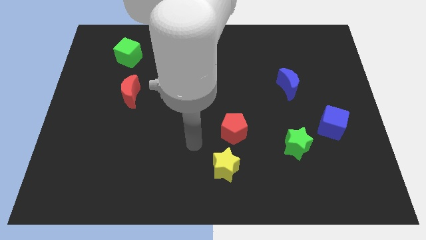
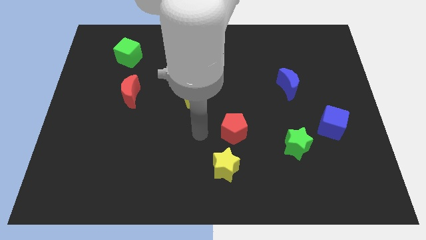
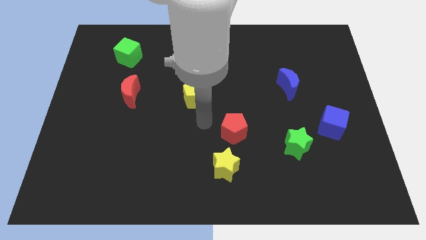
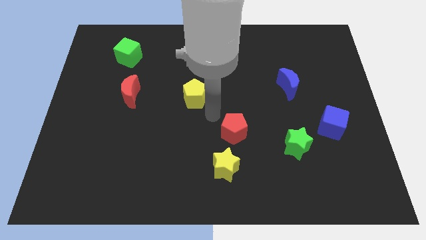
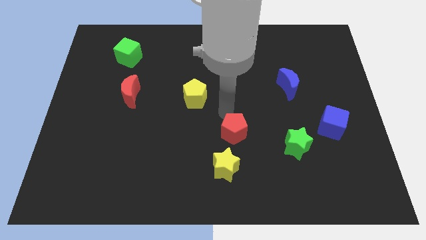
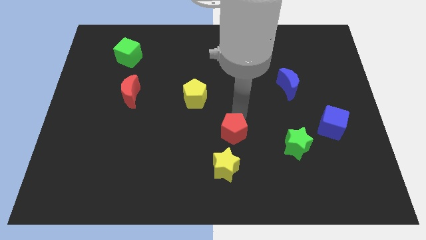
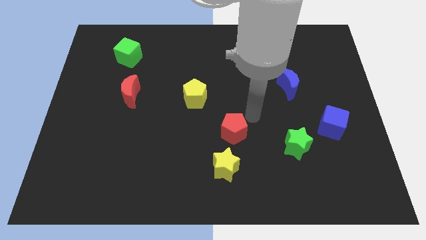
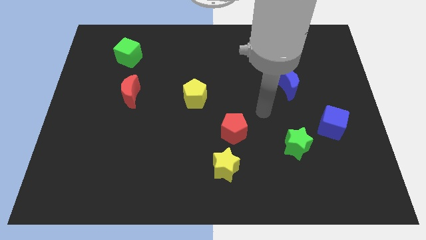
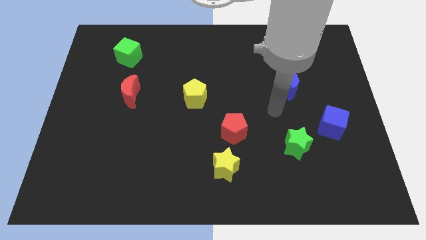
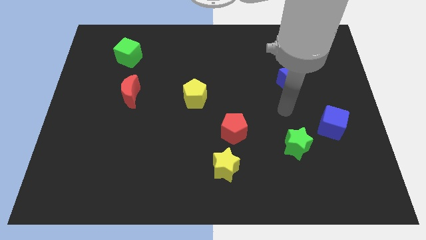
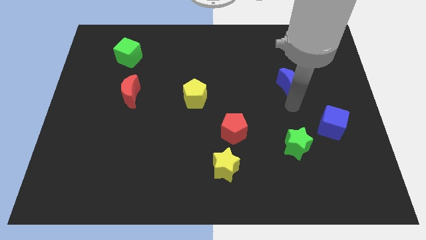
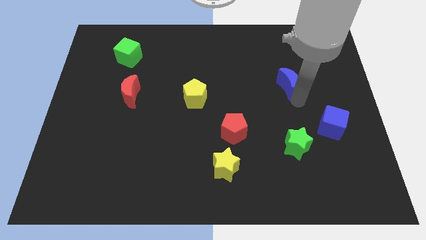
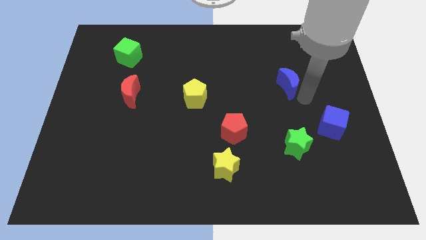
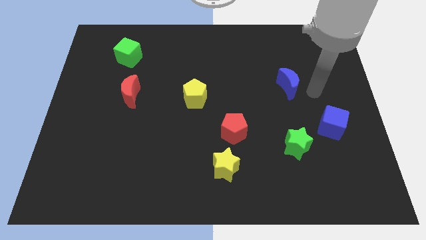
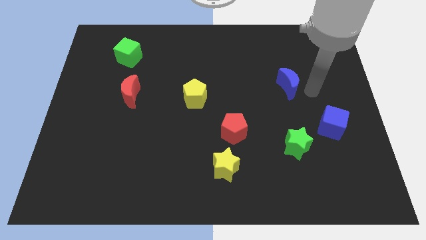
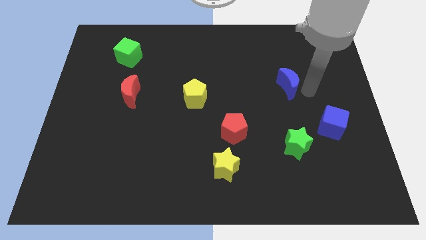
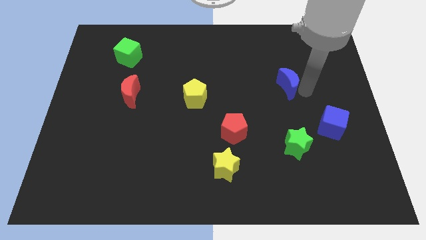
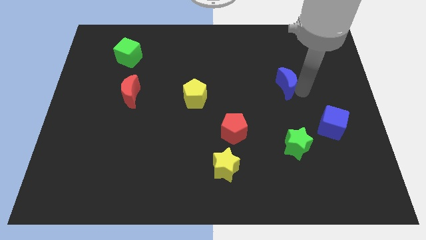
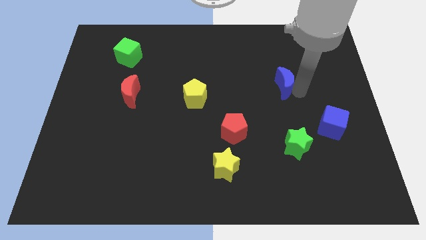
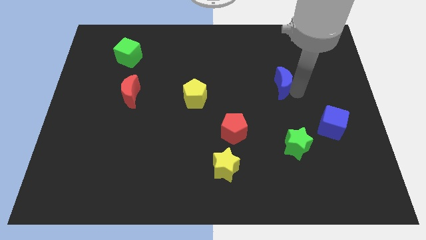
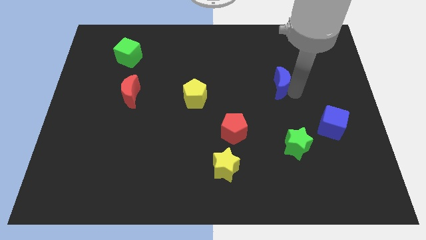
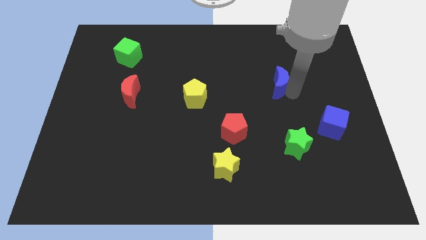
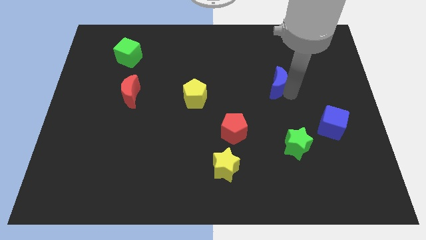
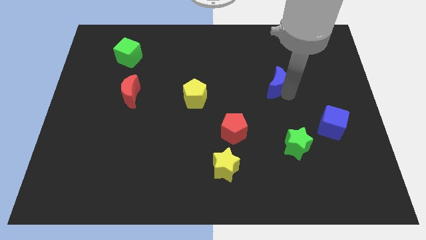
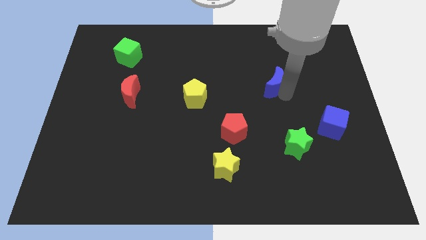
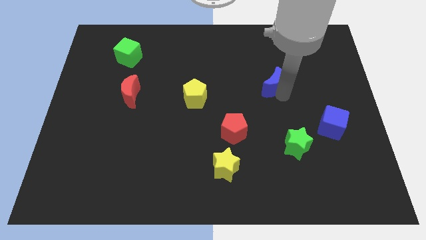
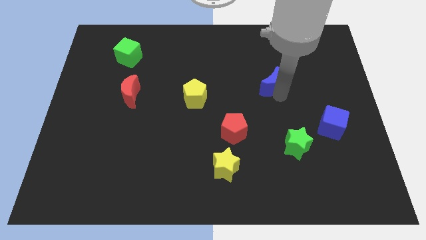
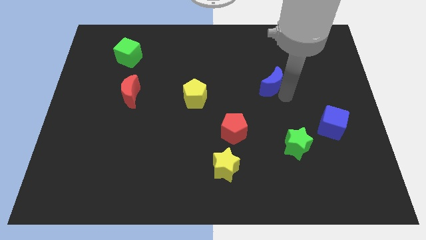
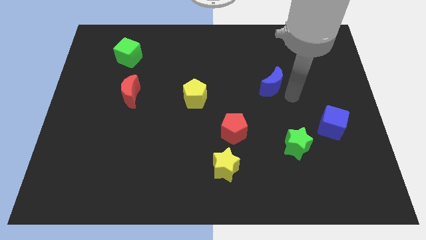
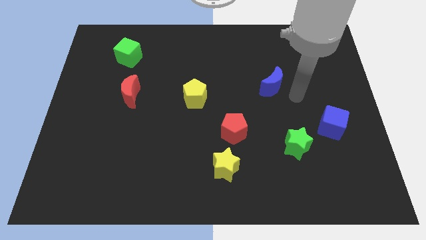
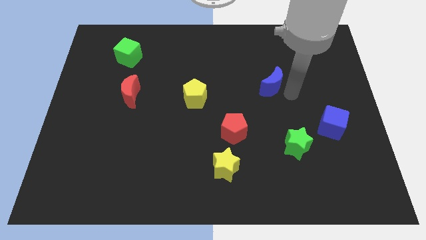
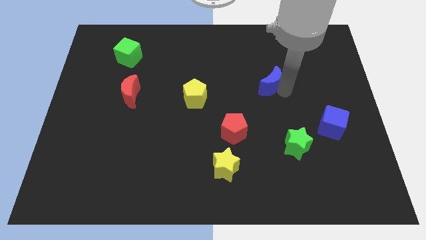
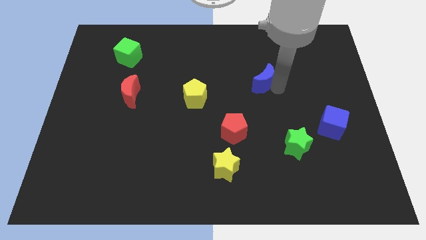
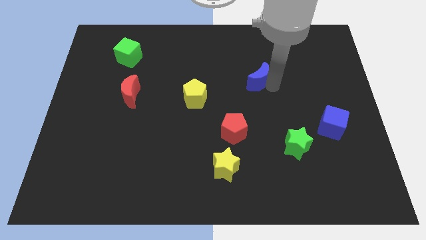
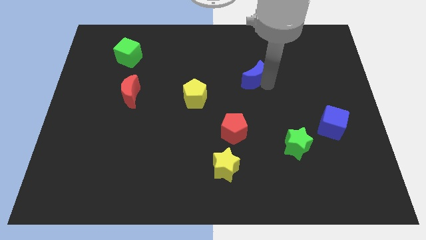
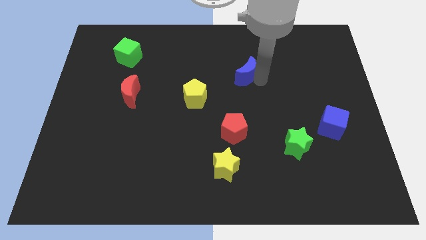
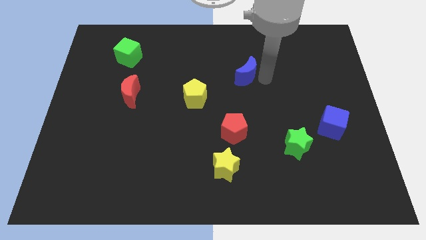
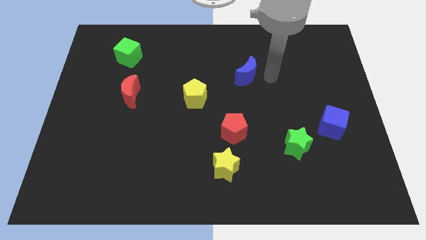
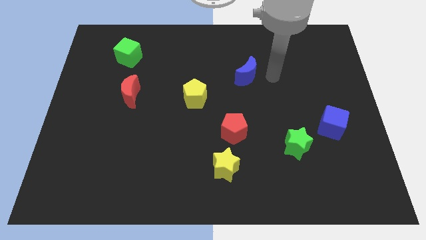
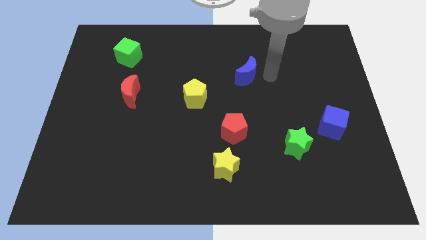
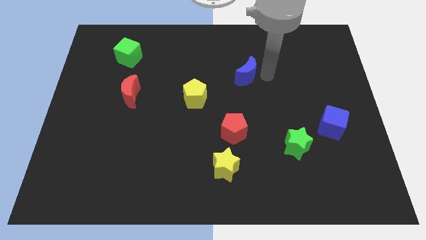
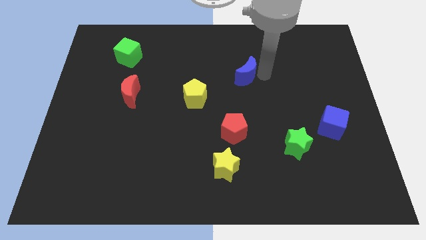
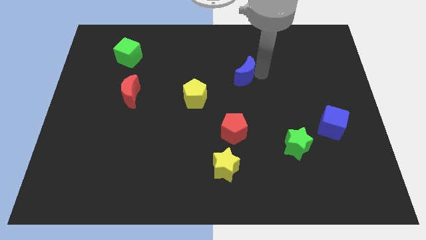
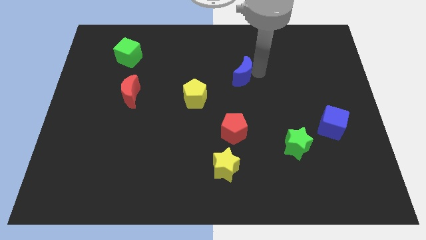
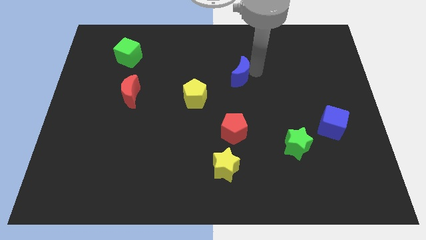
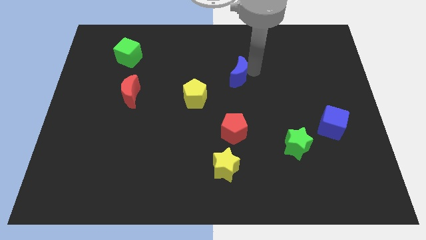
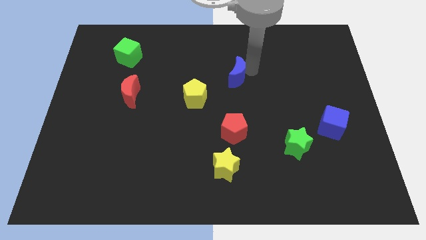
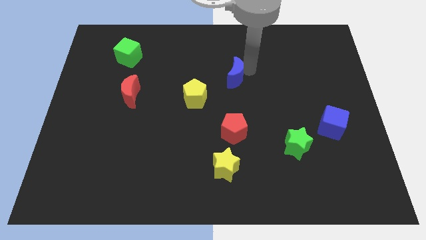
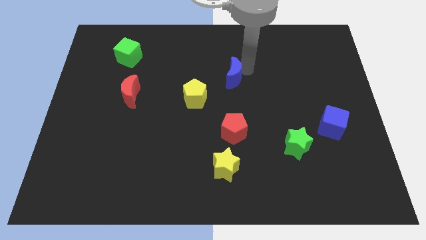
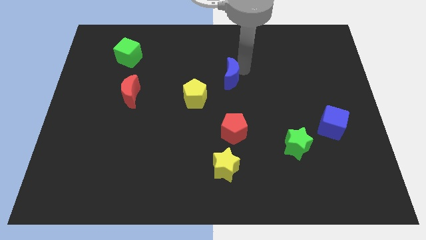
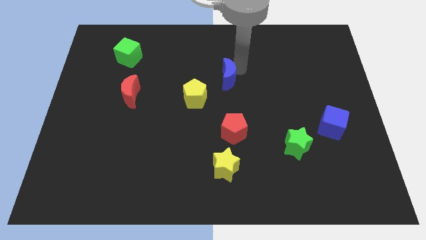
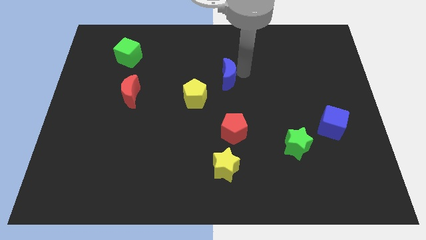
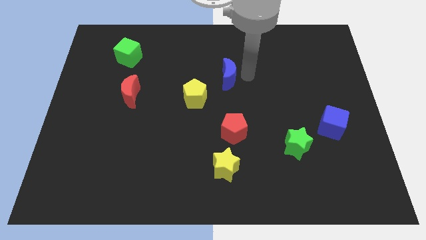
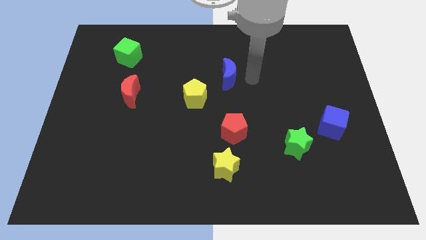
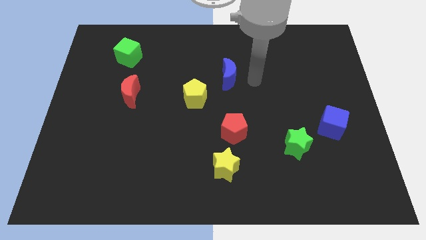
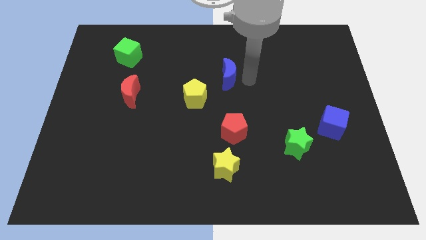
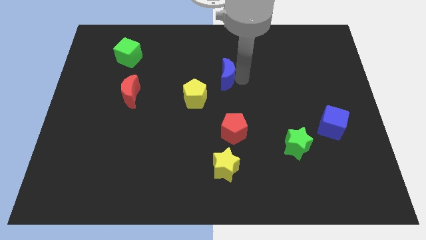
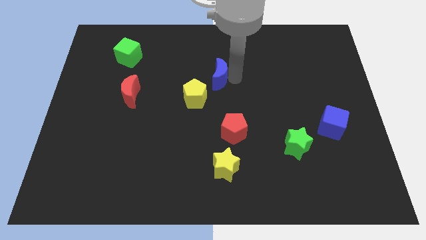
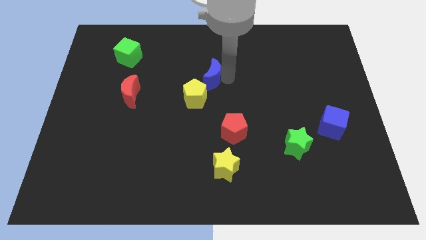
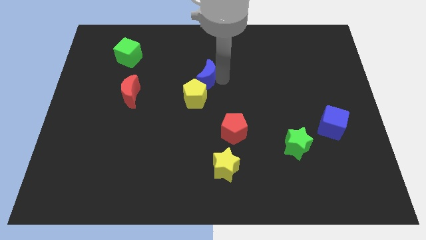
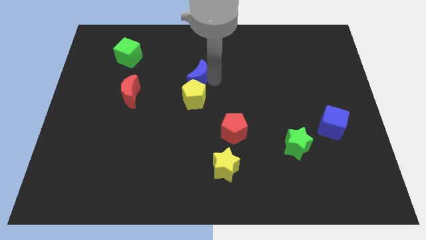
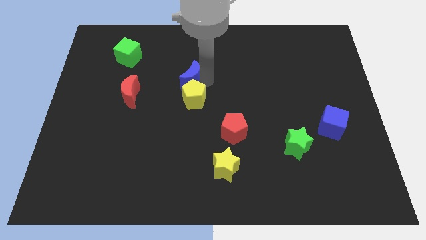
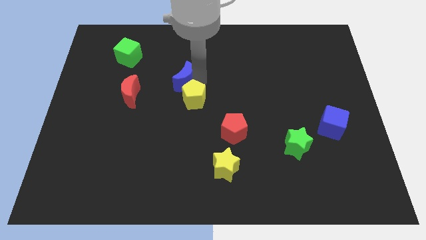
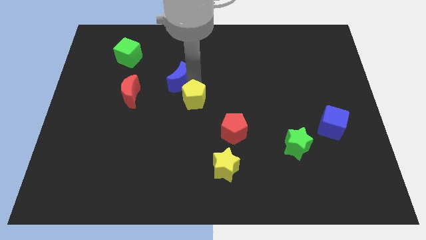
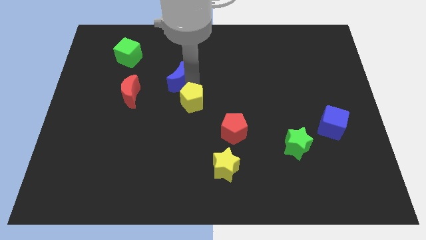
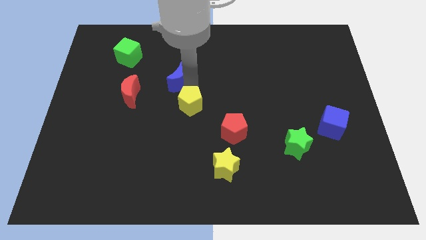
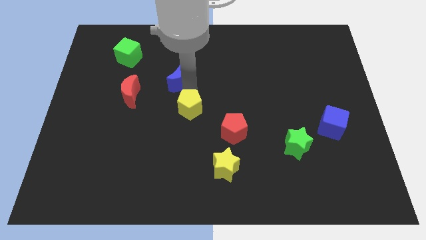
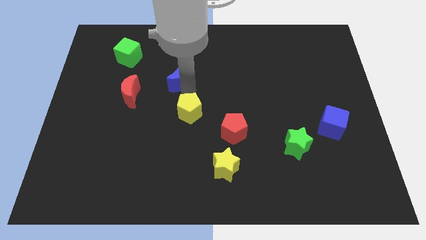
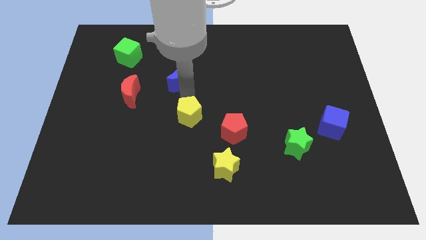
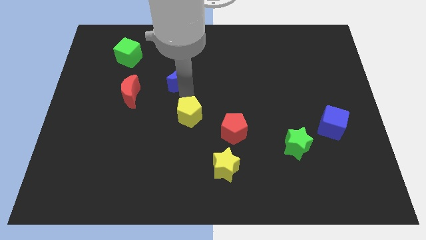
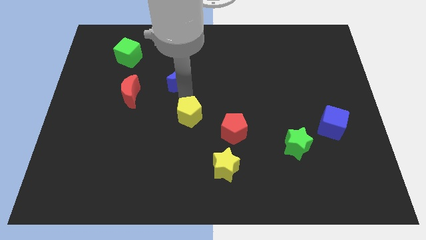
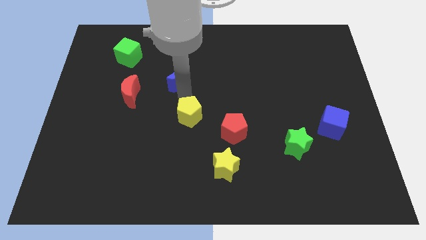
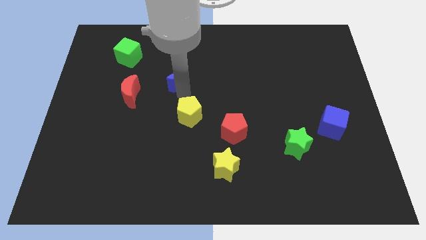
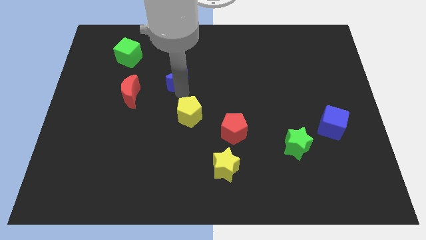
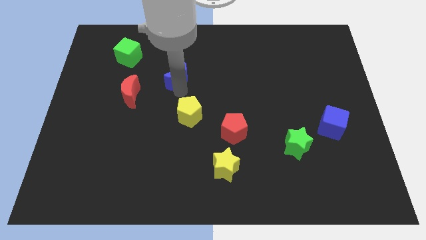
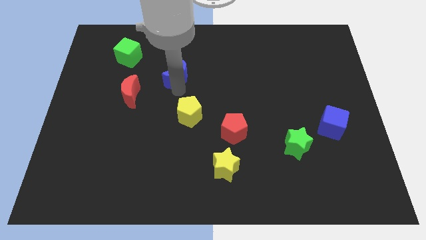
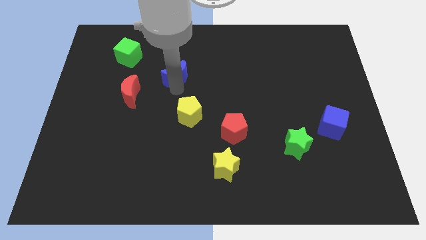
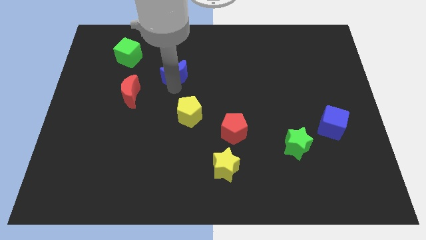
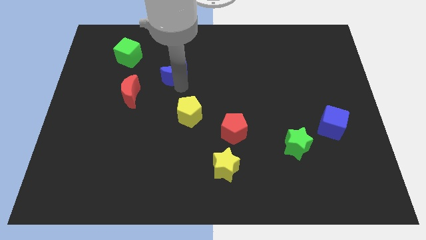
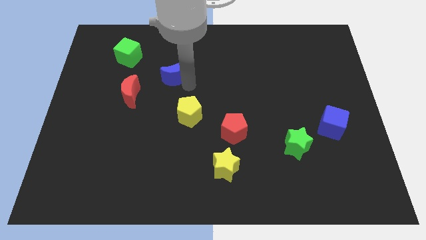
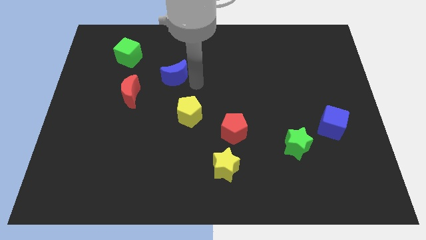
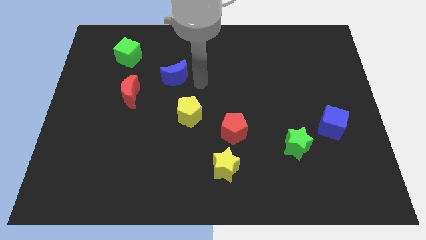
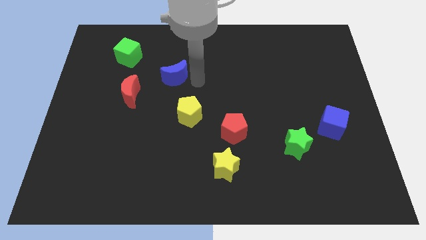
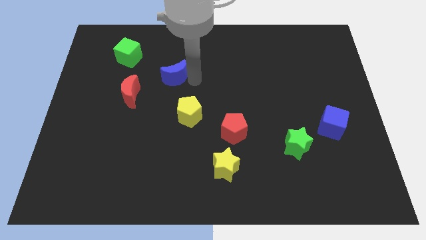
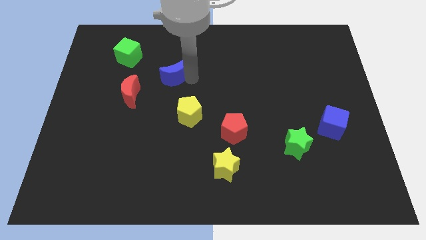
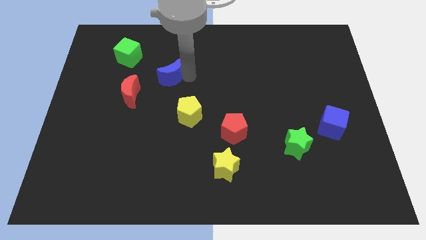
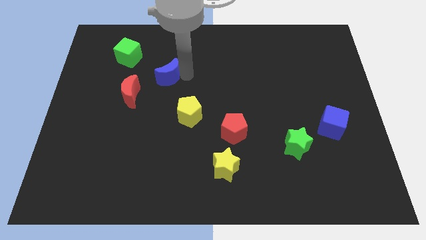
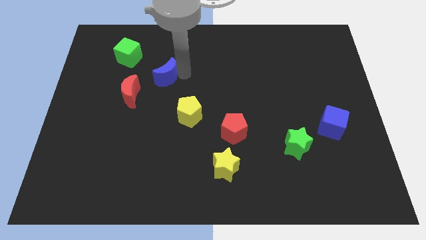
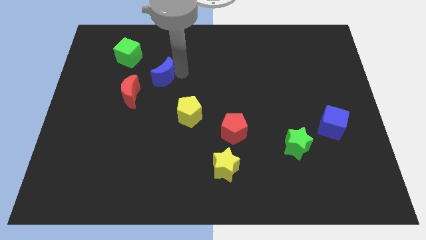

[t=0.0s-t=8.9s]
put the blue moon to the bottom right of the green cube
